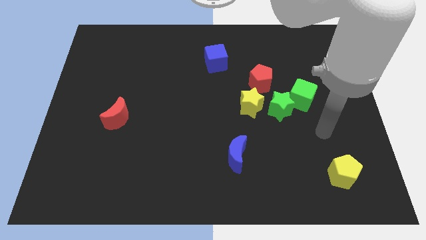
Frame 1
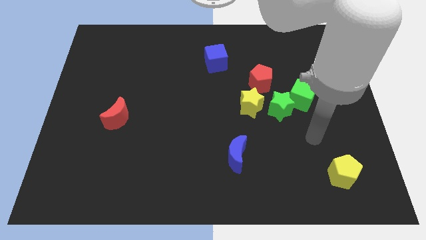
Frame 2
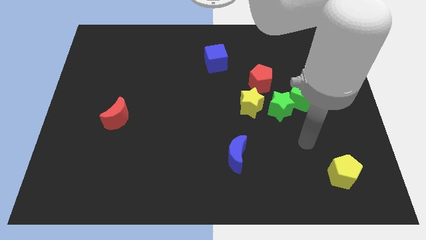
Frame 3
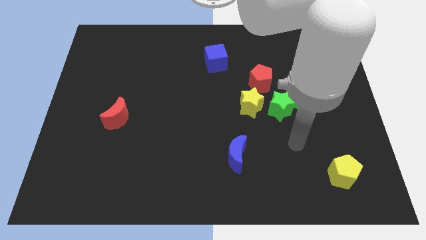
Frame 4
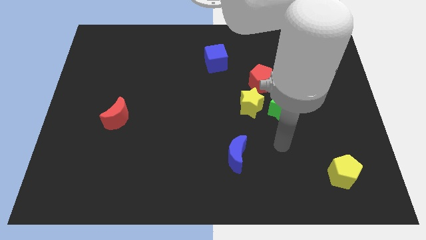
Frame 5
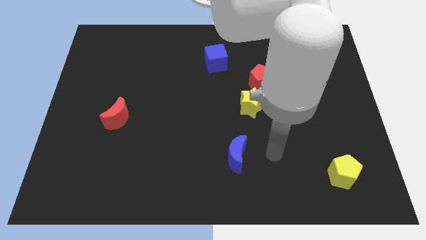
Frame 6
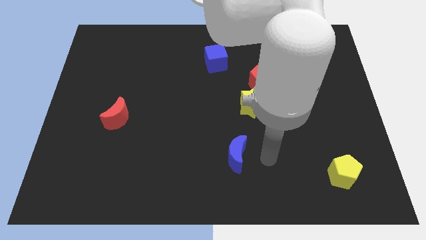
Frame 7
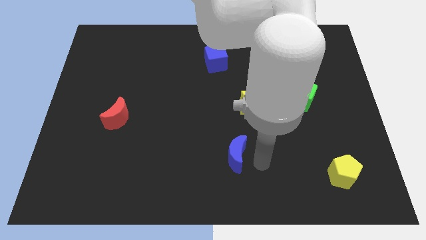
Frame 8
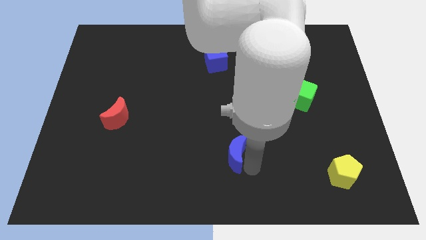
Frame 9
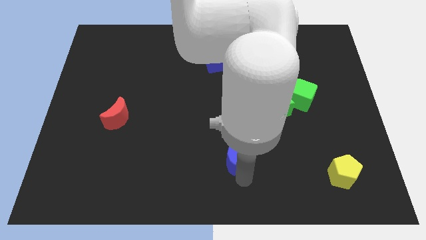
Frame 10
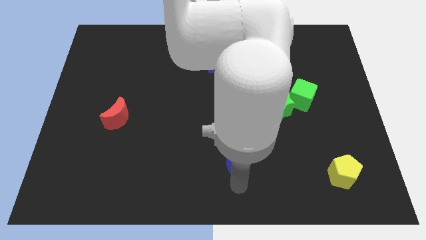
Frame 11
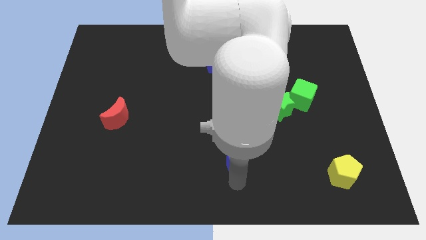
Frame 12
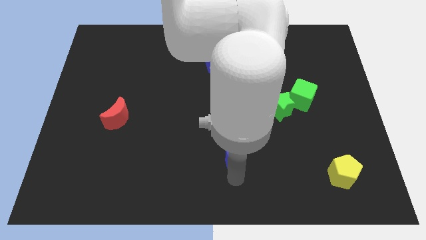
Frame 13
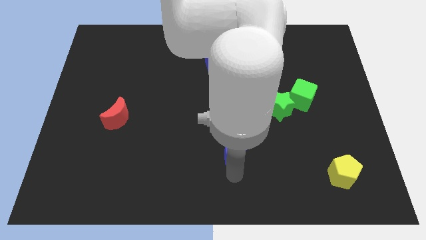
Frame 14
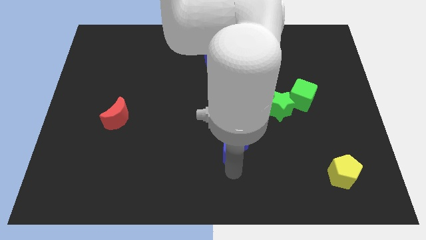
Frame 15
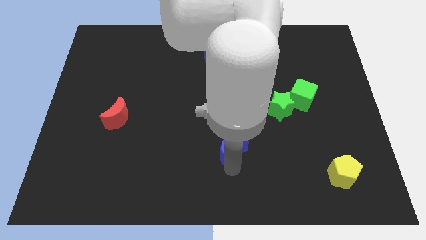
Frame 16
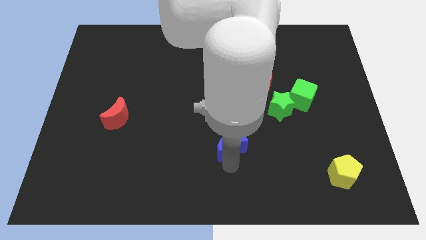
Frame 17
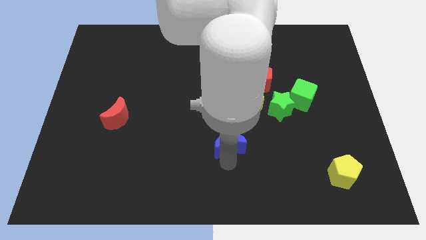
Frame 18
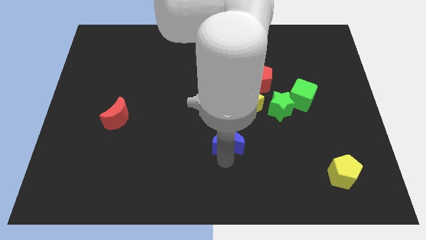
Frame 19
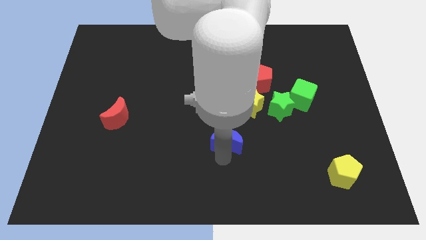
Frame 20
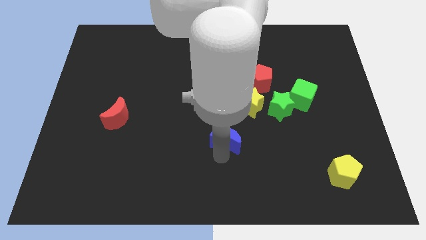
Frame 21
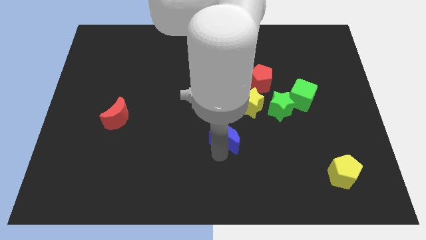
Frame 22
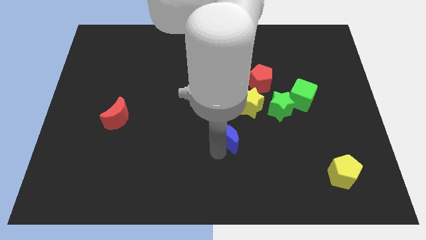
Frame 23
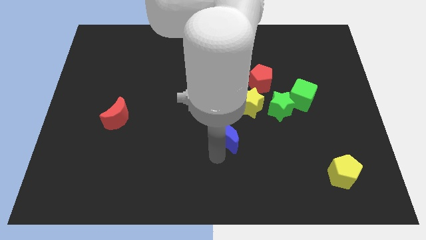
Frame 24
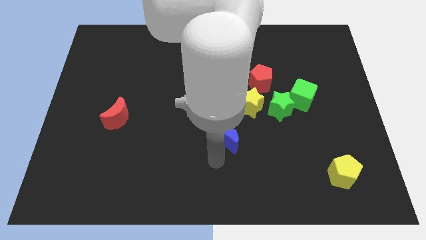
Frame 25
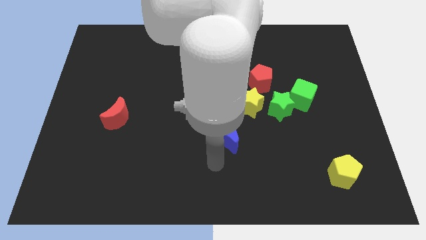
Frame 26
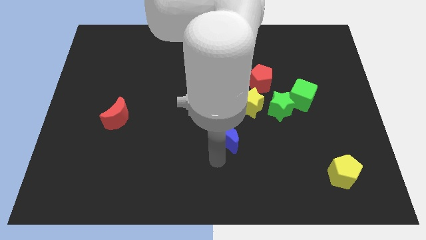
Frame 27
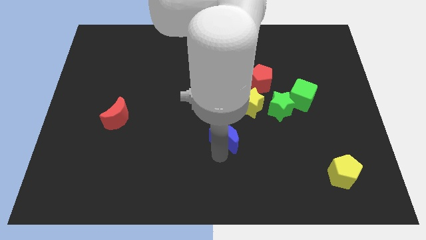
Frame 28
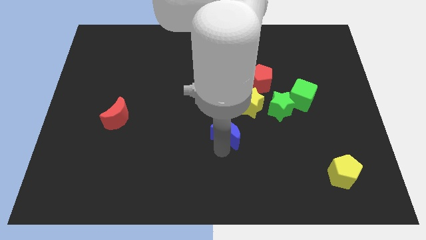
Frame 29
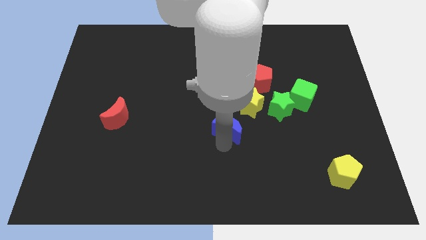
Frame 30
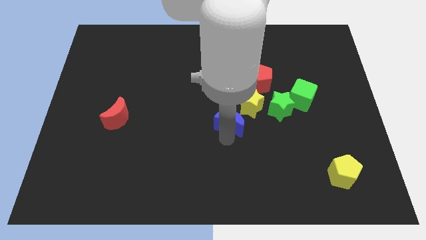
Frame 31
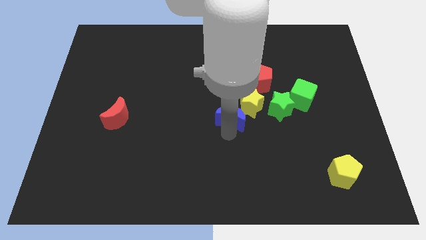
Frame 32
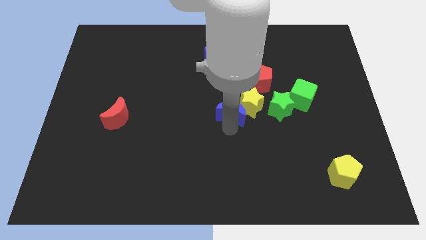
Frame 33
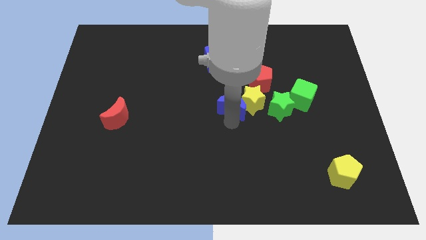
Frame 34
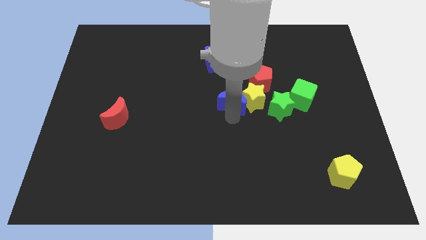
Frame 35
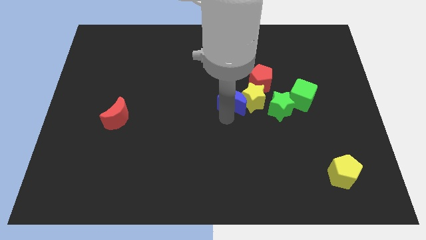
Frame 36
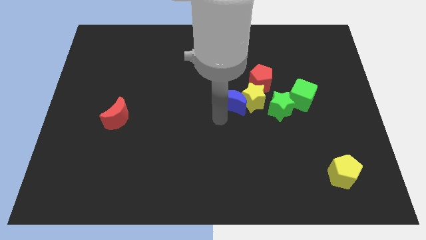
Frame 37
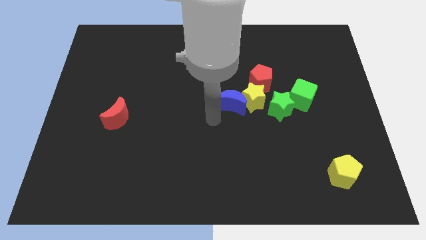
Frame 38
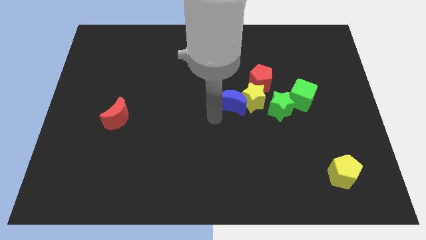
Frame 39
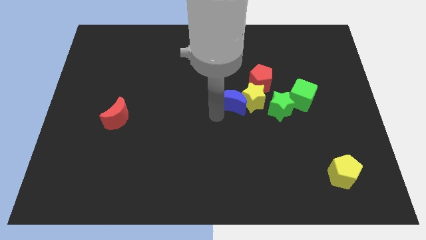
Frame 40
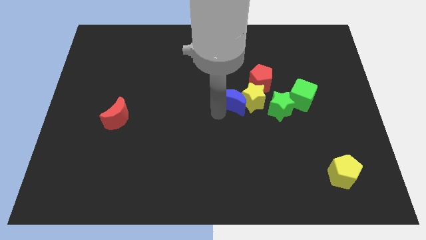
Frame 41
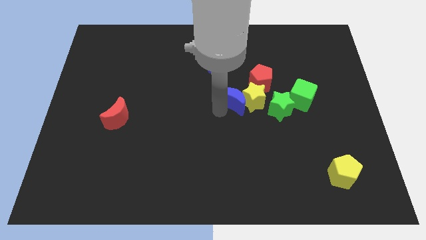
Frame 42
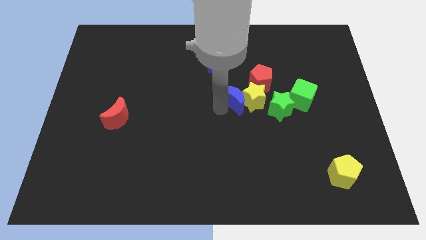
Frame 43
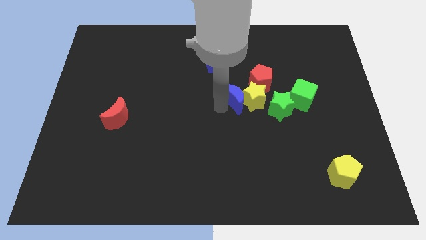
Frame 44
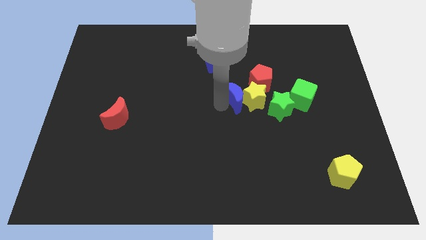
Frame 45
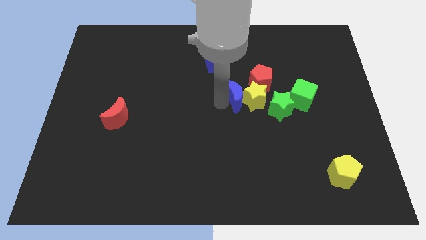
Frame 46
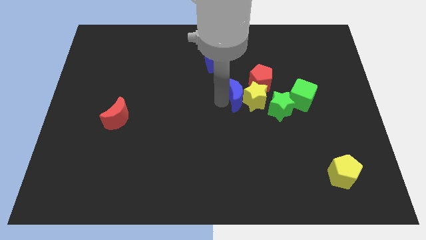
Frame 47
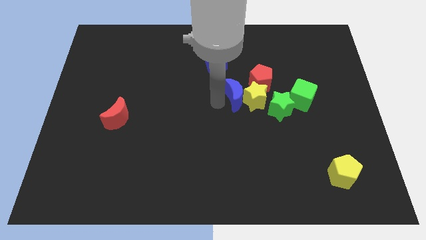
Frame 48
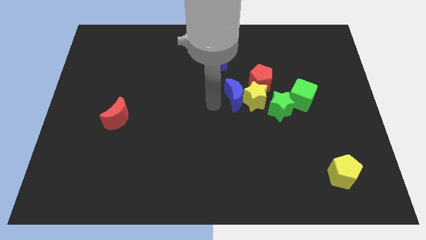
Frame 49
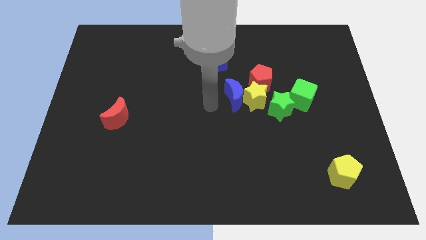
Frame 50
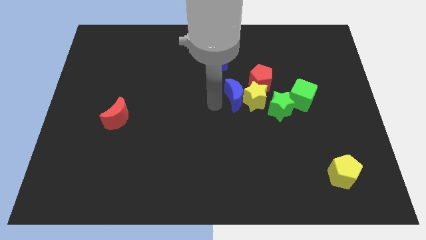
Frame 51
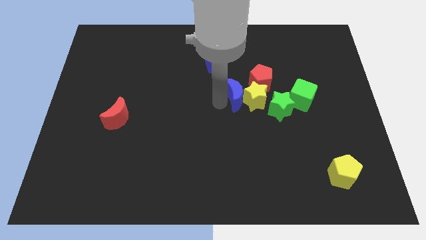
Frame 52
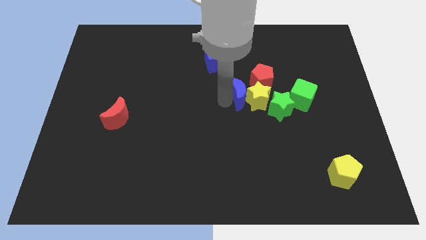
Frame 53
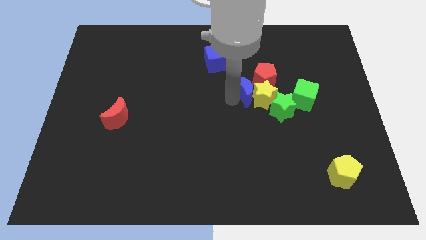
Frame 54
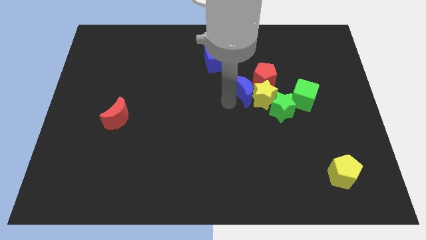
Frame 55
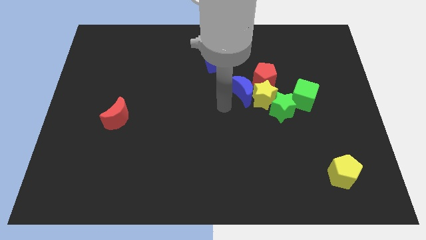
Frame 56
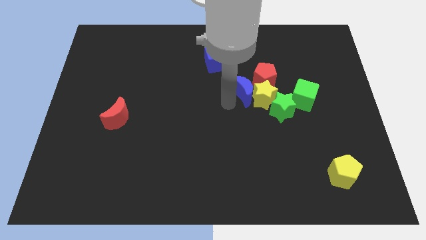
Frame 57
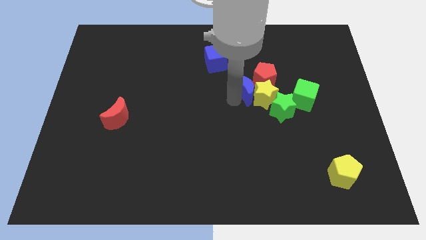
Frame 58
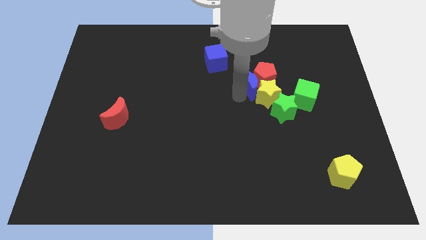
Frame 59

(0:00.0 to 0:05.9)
slide the blue moon close to the red pentagon

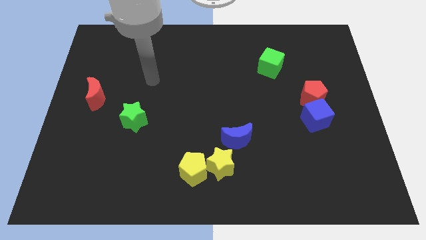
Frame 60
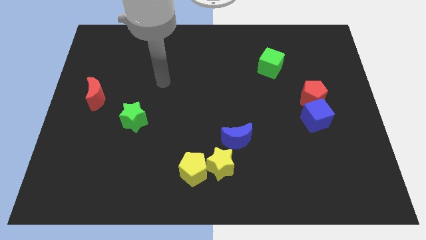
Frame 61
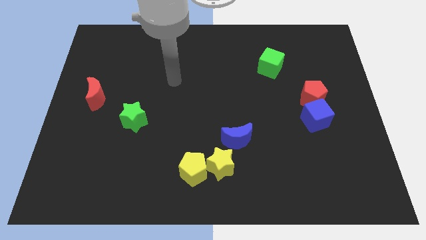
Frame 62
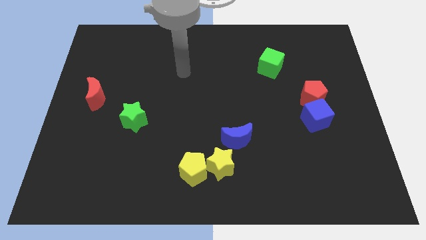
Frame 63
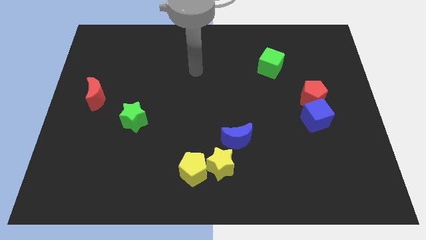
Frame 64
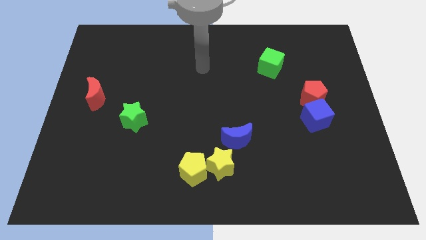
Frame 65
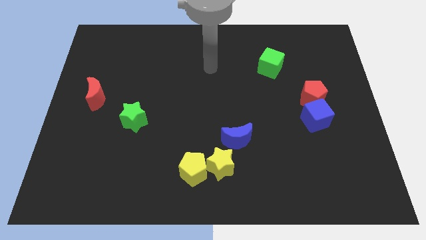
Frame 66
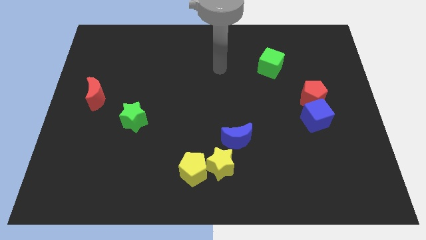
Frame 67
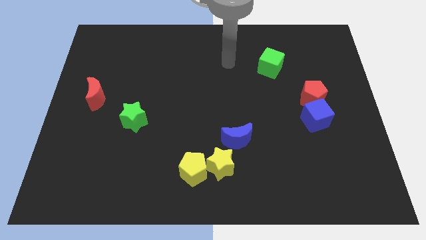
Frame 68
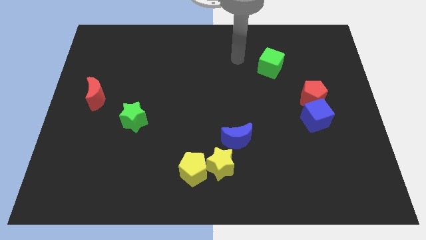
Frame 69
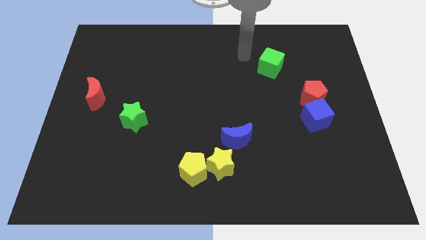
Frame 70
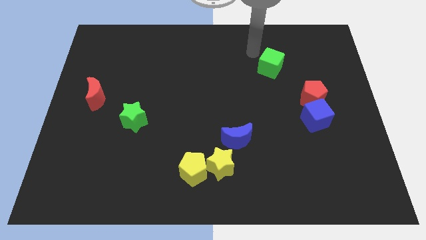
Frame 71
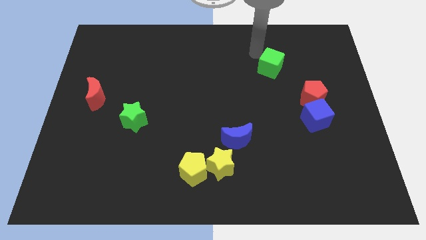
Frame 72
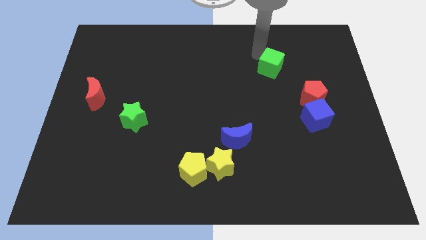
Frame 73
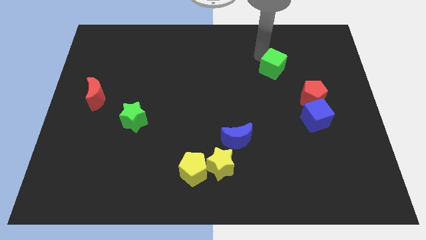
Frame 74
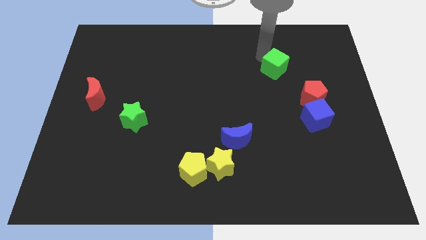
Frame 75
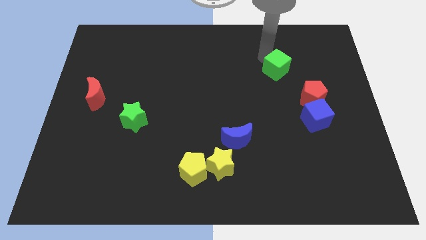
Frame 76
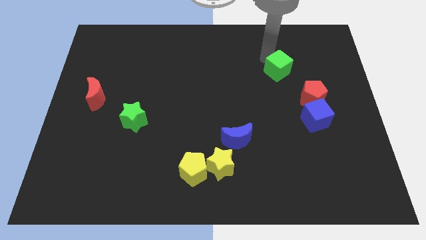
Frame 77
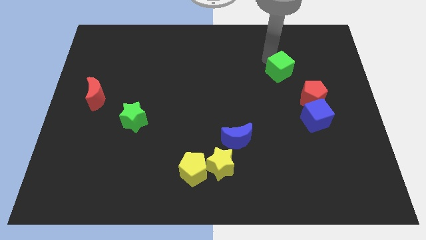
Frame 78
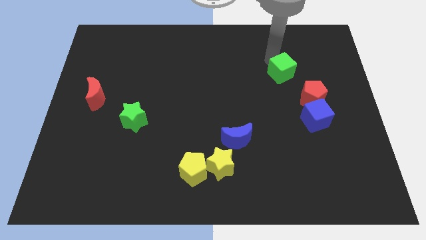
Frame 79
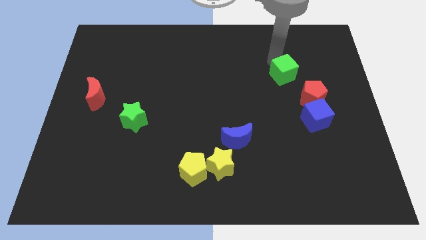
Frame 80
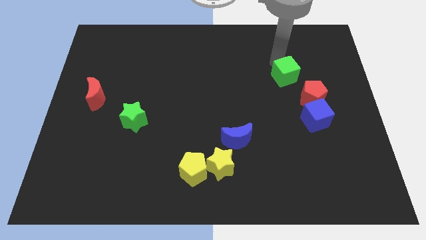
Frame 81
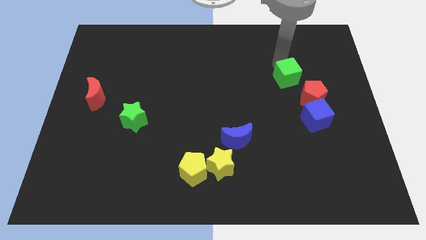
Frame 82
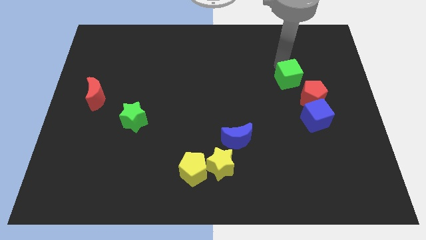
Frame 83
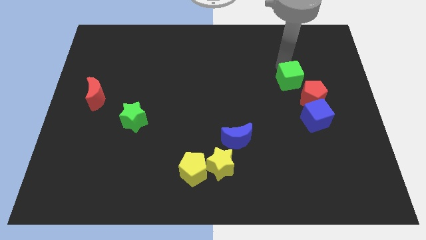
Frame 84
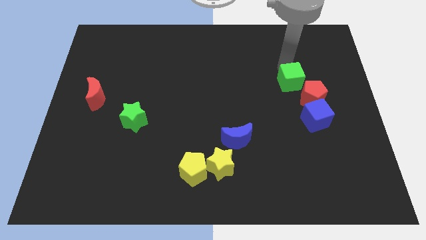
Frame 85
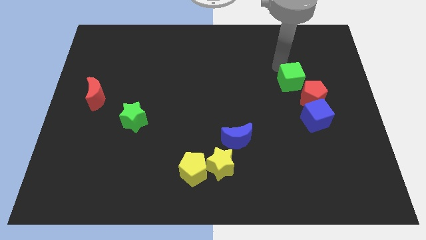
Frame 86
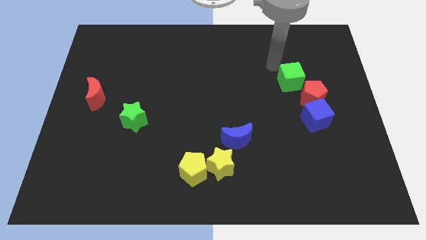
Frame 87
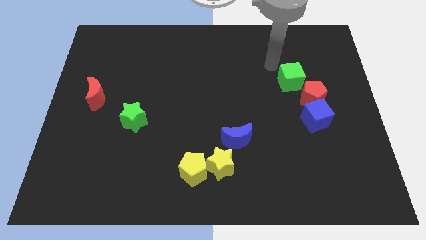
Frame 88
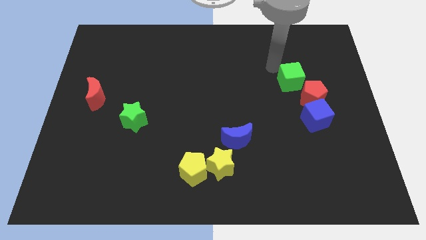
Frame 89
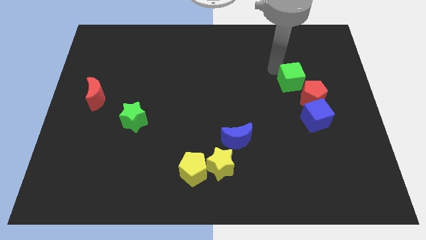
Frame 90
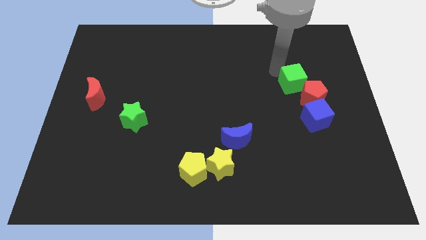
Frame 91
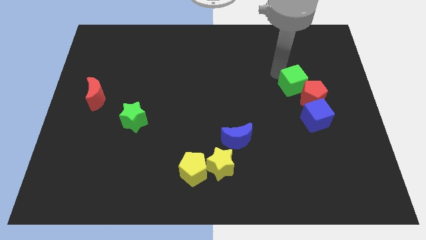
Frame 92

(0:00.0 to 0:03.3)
move the green cube close to the red pentagon
